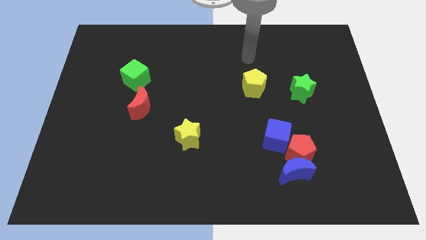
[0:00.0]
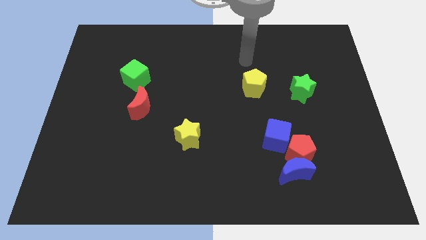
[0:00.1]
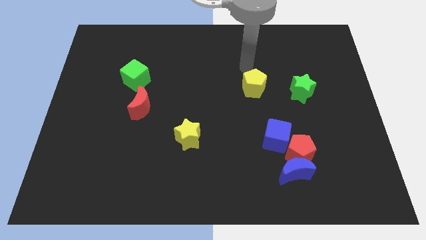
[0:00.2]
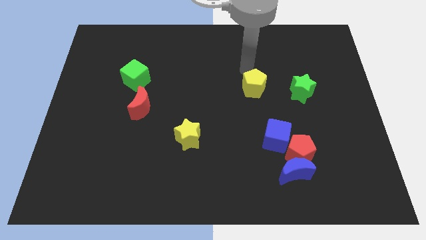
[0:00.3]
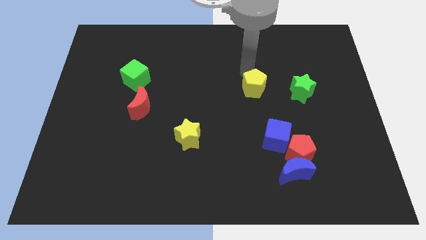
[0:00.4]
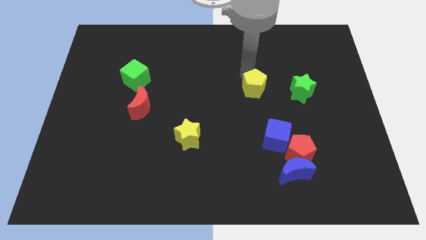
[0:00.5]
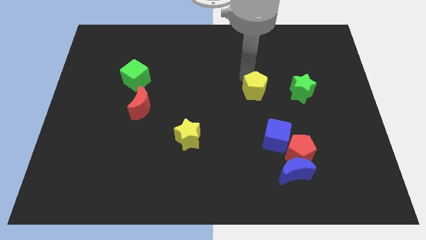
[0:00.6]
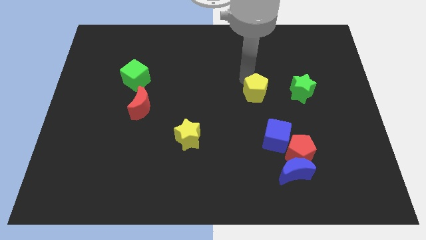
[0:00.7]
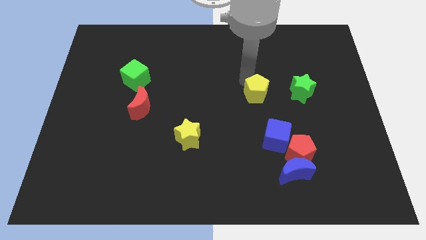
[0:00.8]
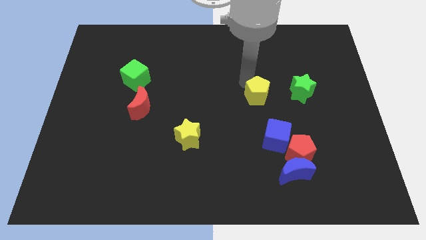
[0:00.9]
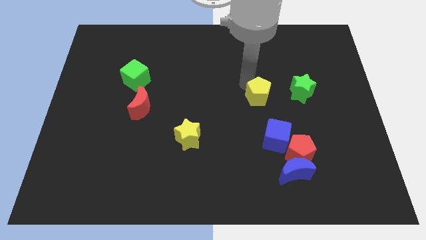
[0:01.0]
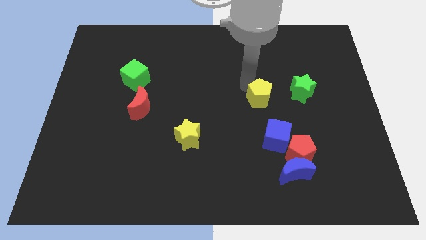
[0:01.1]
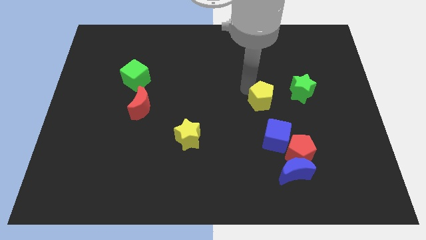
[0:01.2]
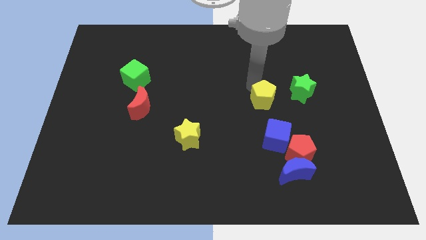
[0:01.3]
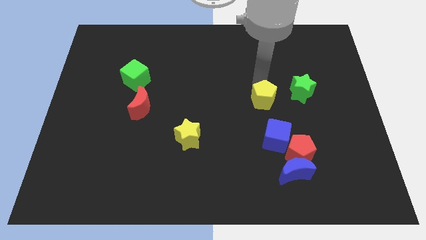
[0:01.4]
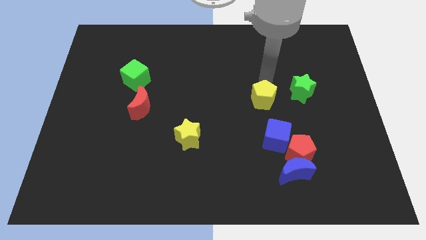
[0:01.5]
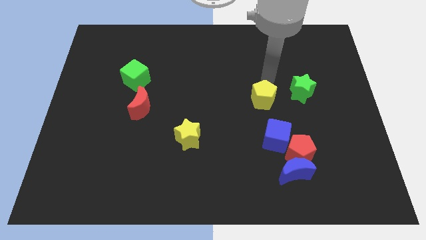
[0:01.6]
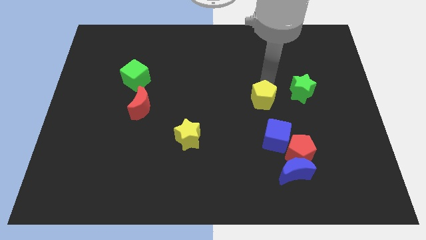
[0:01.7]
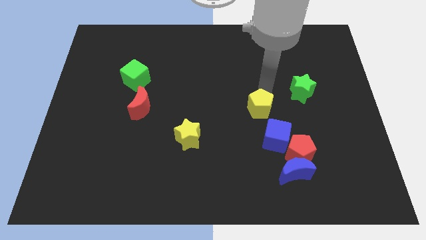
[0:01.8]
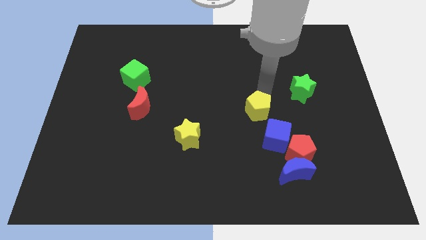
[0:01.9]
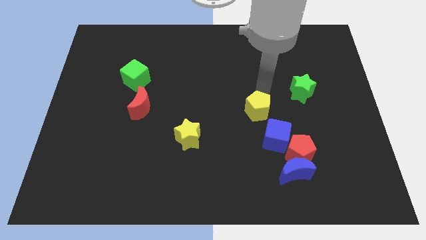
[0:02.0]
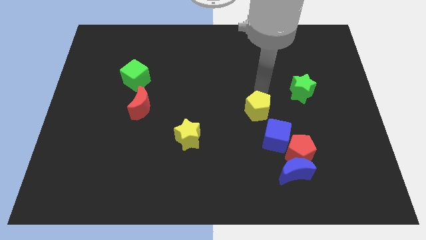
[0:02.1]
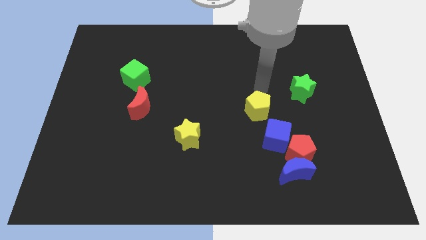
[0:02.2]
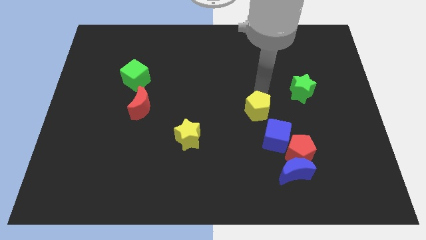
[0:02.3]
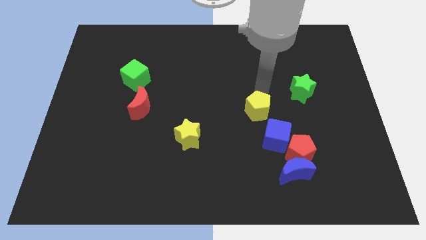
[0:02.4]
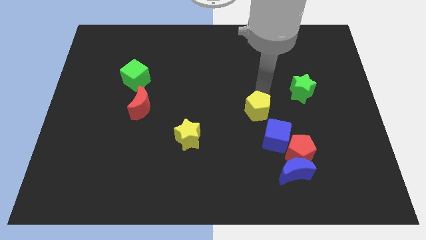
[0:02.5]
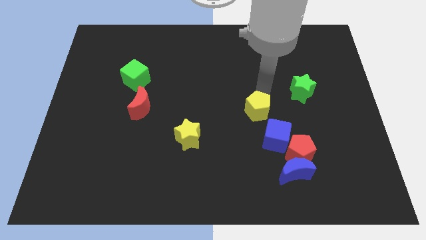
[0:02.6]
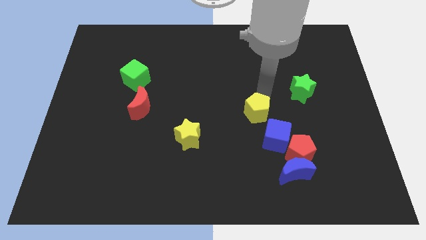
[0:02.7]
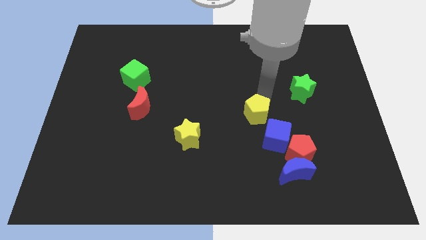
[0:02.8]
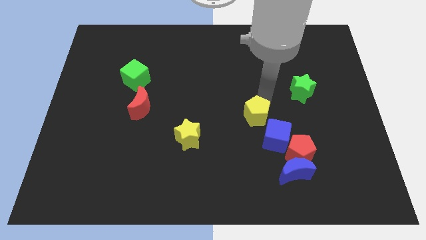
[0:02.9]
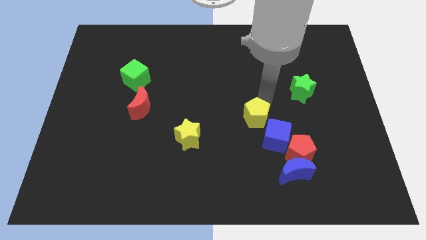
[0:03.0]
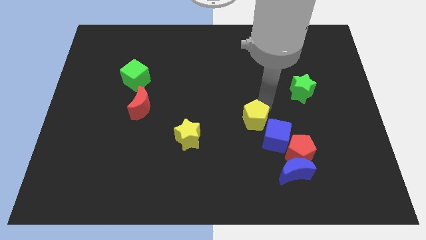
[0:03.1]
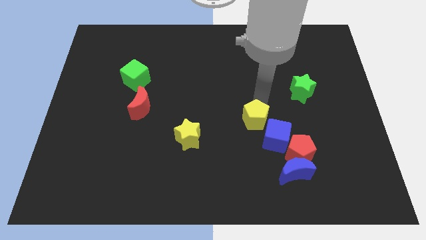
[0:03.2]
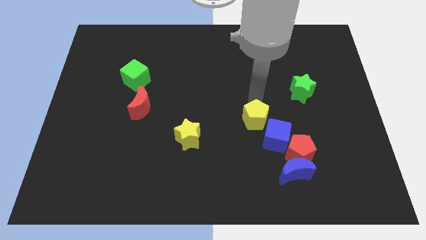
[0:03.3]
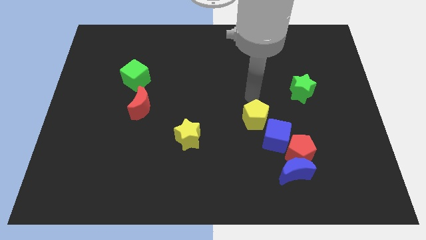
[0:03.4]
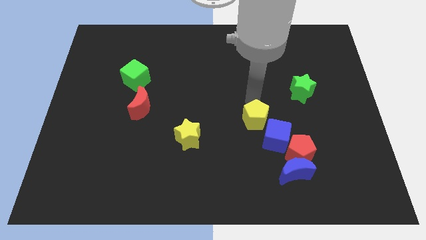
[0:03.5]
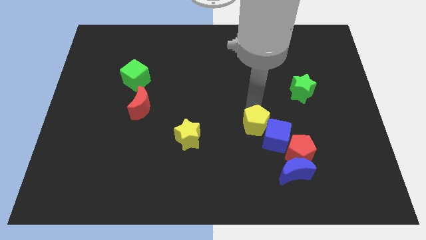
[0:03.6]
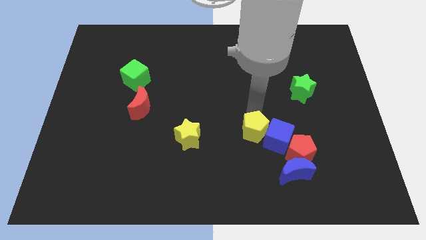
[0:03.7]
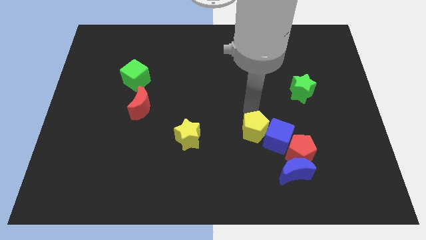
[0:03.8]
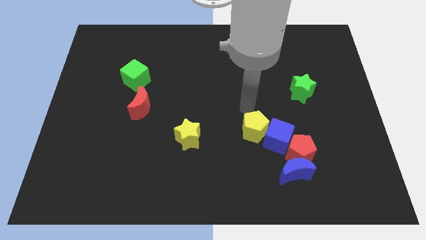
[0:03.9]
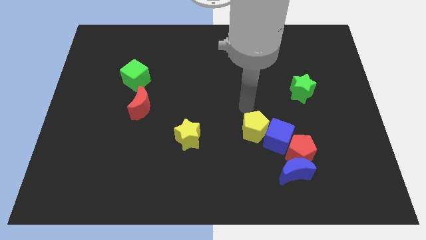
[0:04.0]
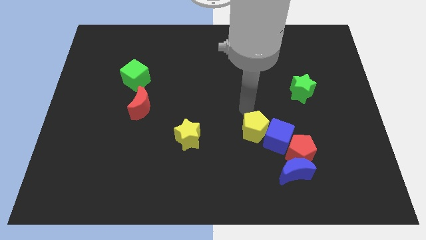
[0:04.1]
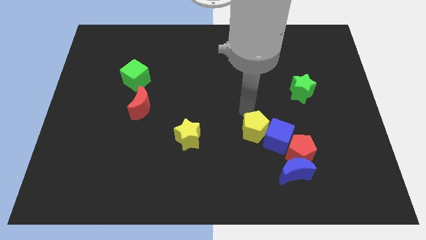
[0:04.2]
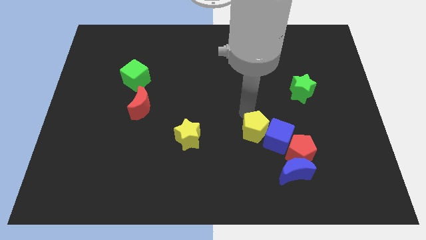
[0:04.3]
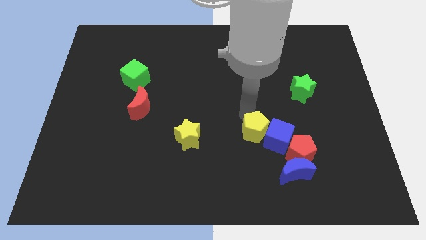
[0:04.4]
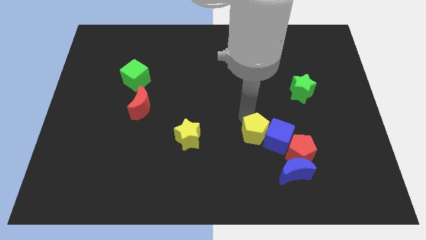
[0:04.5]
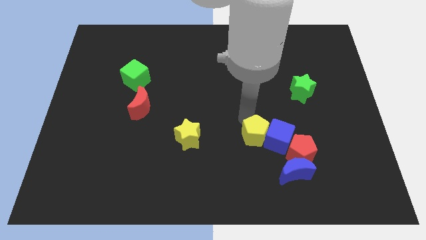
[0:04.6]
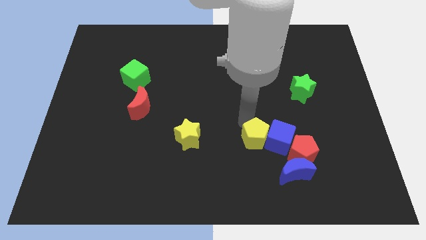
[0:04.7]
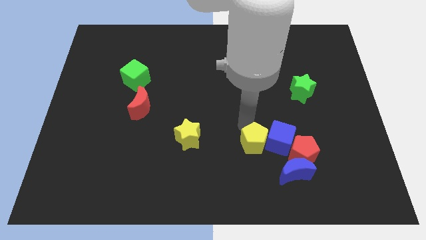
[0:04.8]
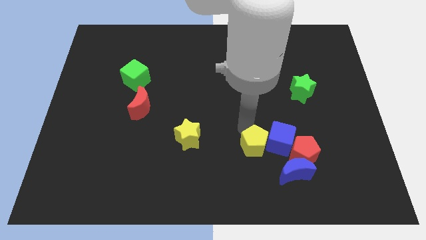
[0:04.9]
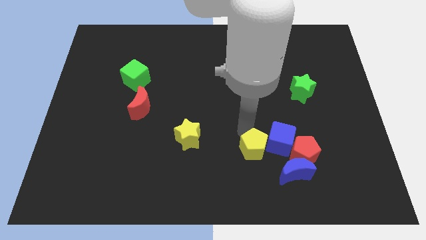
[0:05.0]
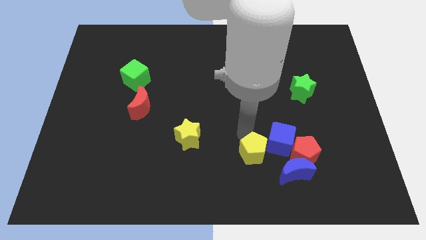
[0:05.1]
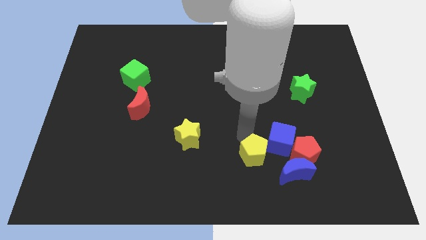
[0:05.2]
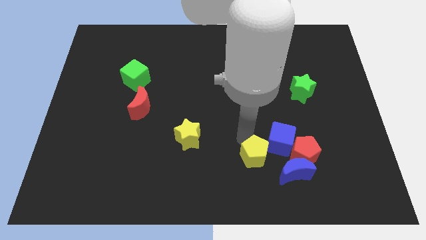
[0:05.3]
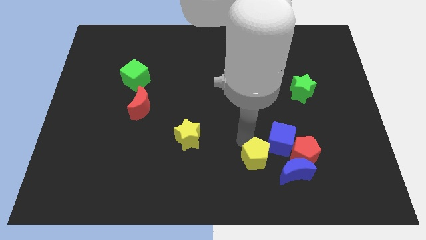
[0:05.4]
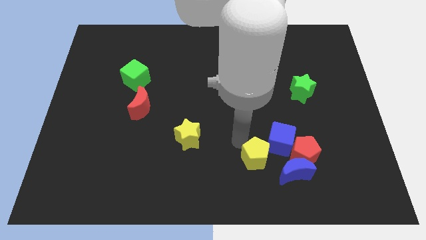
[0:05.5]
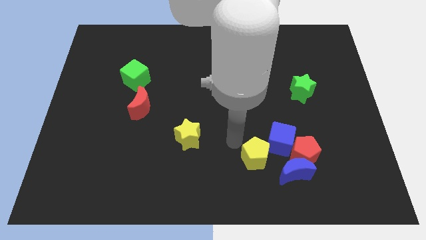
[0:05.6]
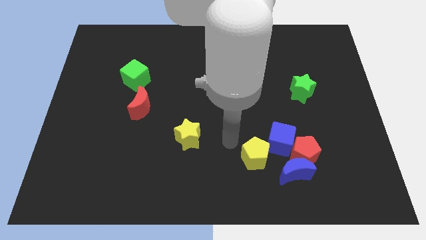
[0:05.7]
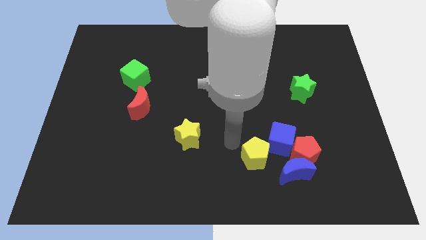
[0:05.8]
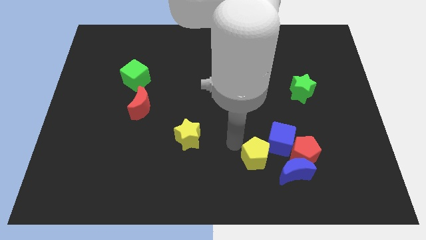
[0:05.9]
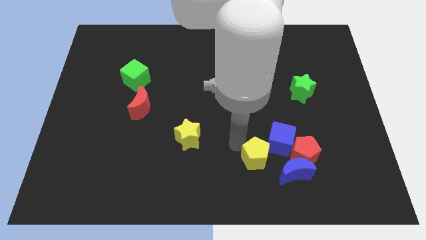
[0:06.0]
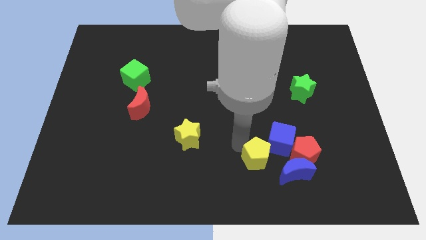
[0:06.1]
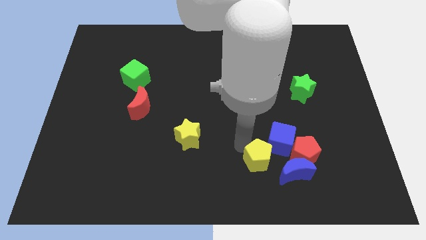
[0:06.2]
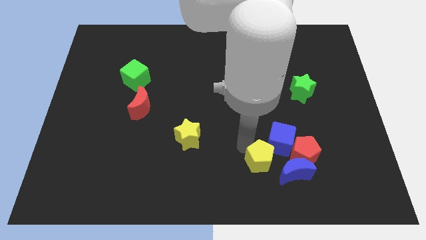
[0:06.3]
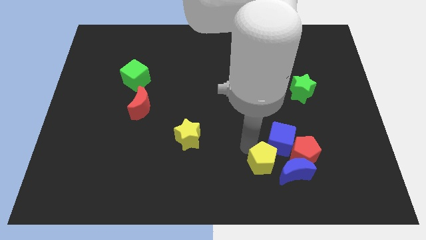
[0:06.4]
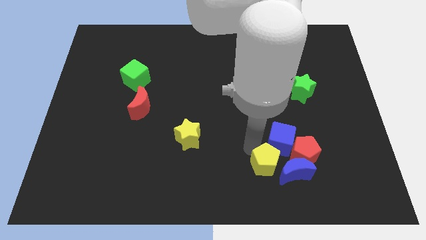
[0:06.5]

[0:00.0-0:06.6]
slide the yellow pentagon next to the blue moon

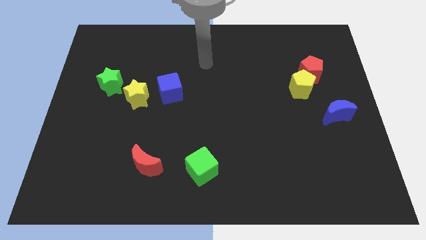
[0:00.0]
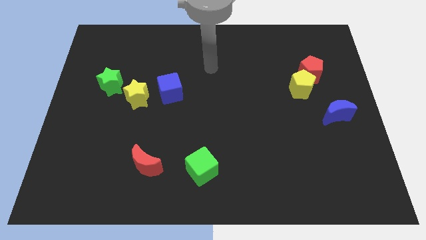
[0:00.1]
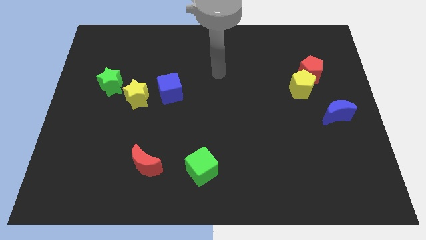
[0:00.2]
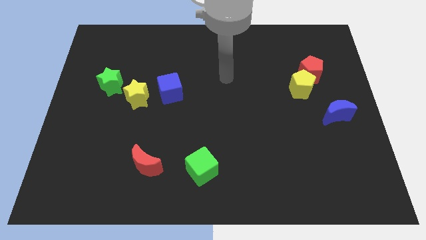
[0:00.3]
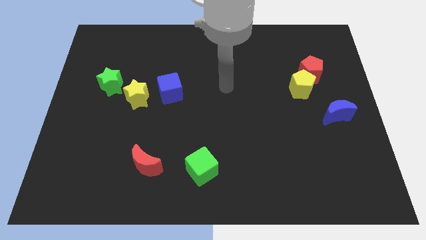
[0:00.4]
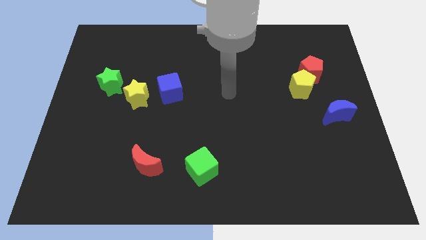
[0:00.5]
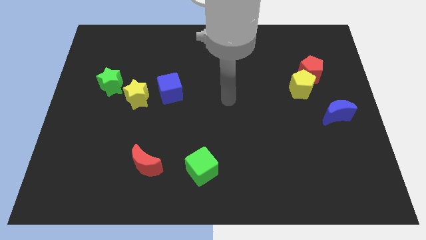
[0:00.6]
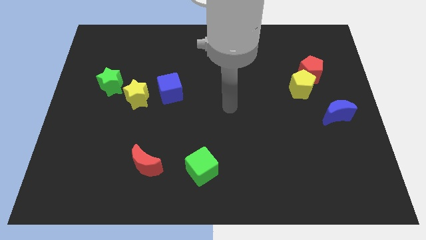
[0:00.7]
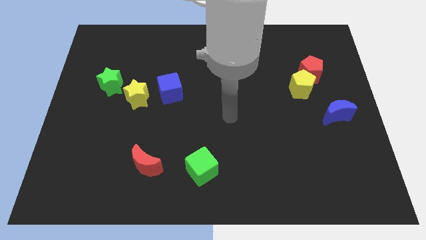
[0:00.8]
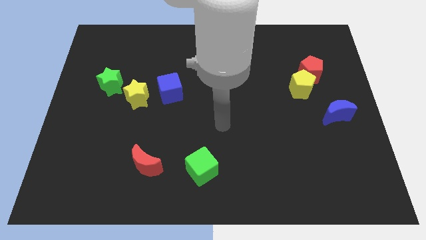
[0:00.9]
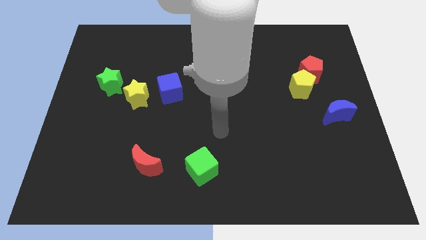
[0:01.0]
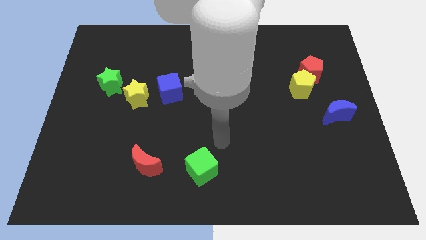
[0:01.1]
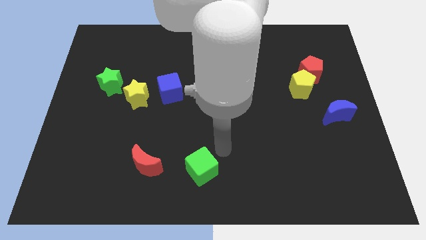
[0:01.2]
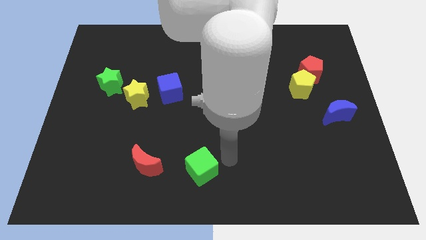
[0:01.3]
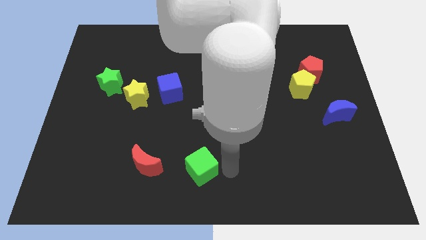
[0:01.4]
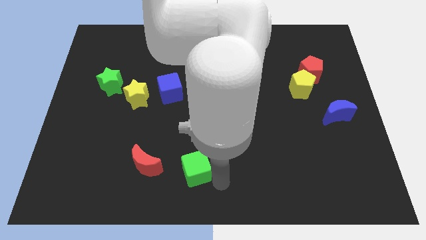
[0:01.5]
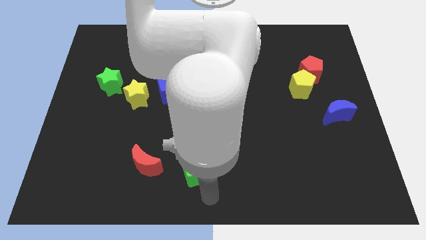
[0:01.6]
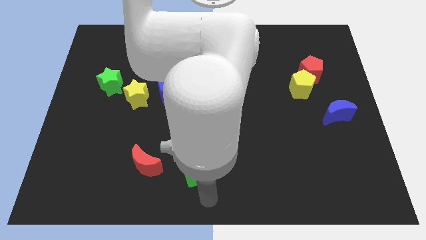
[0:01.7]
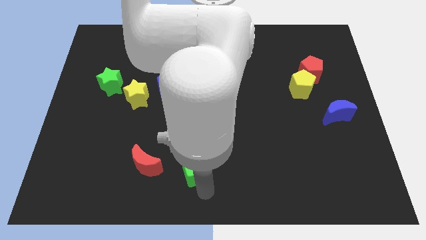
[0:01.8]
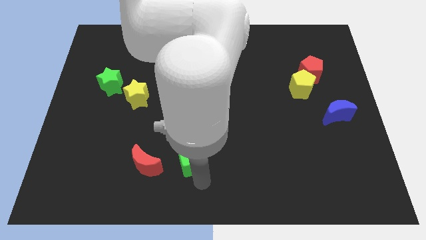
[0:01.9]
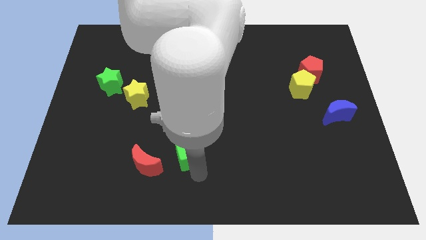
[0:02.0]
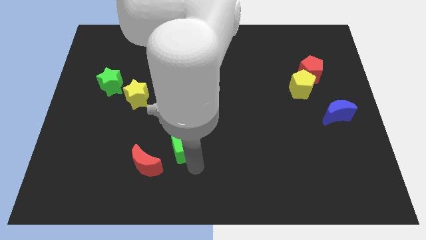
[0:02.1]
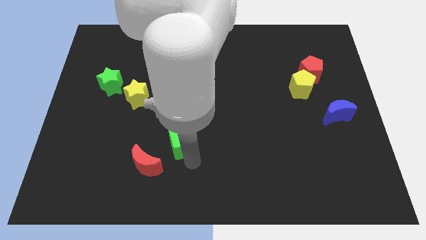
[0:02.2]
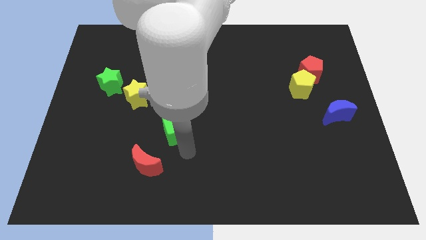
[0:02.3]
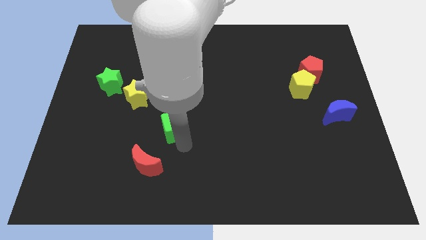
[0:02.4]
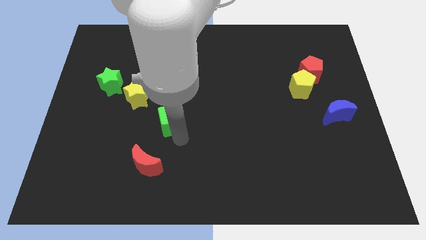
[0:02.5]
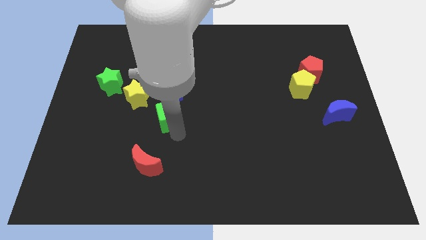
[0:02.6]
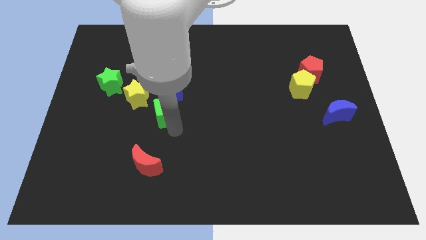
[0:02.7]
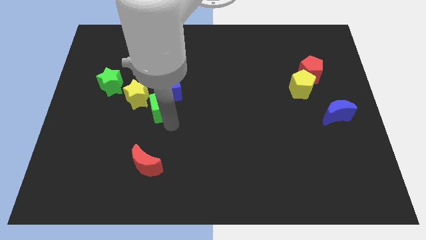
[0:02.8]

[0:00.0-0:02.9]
push the green cube close to the blue cube
